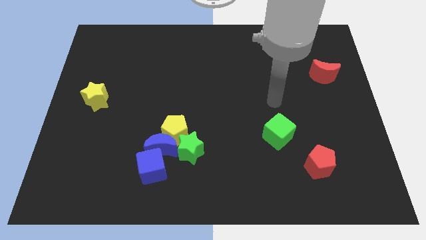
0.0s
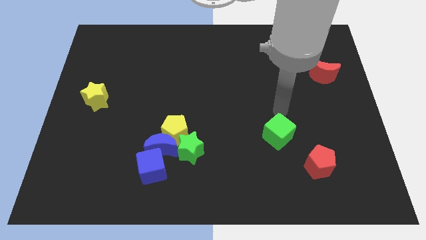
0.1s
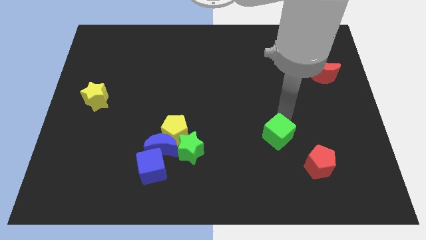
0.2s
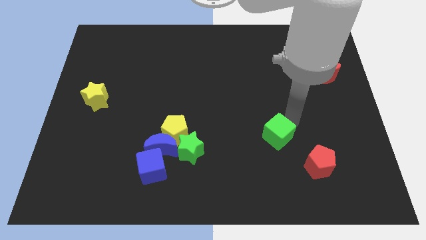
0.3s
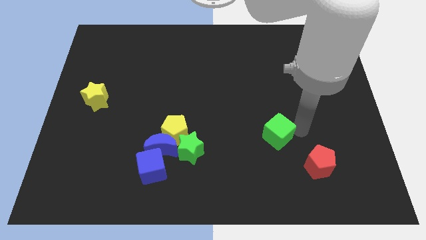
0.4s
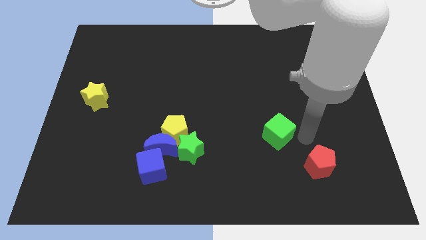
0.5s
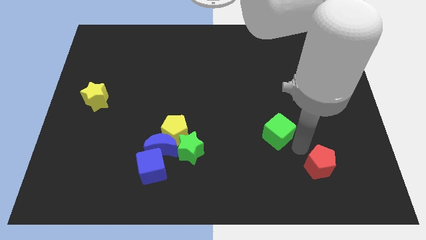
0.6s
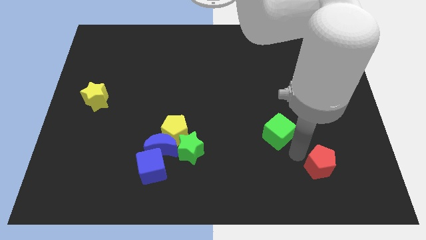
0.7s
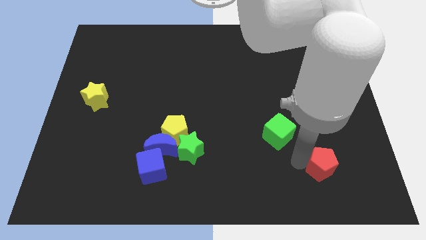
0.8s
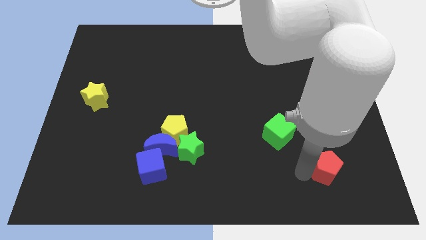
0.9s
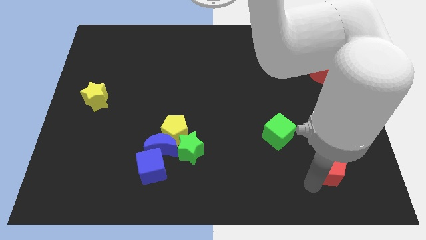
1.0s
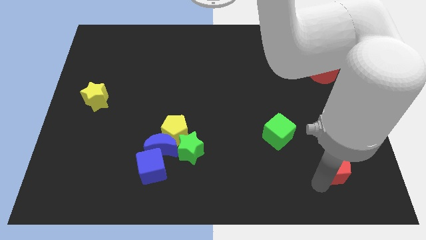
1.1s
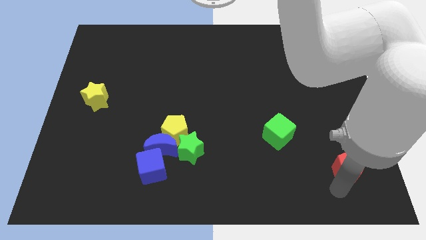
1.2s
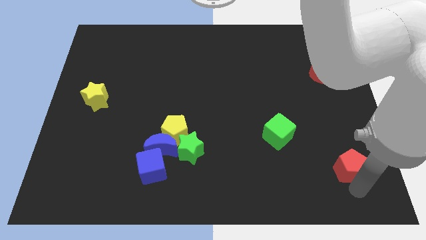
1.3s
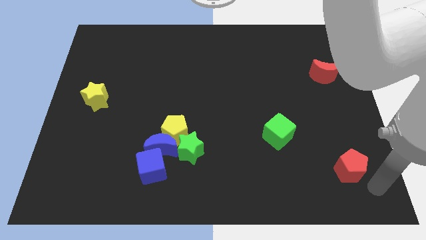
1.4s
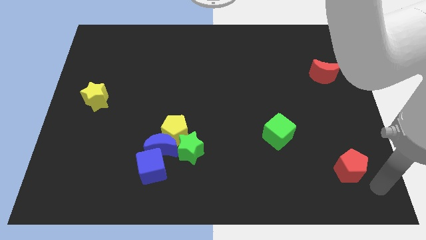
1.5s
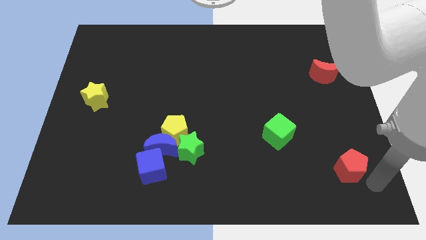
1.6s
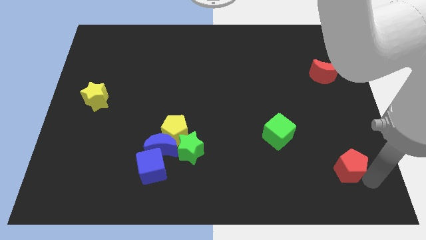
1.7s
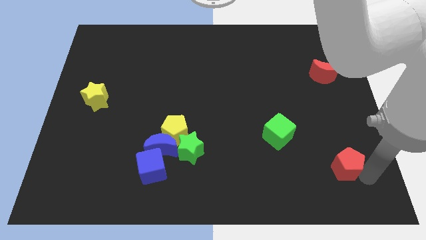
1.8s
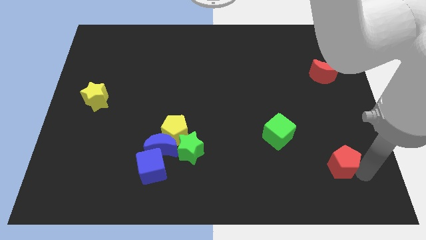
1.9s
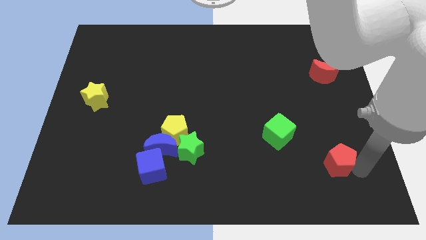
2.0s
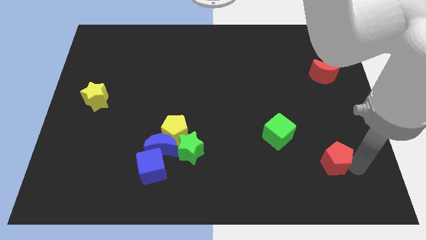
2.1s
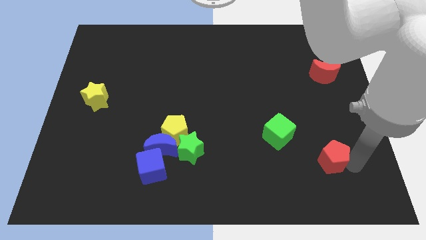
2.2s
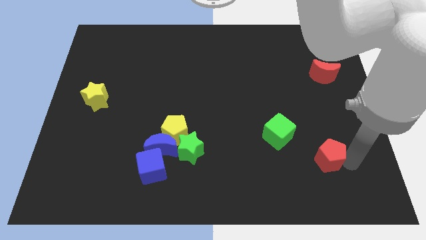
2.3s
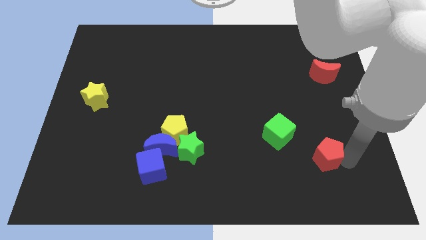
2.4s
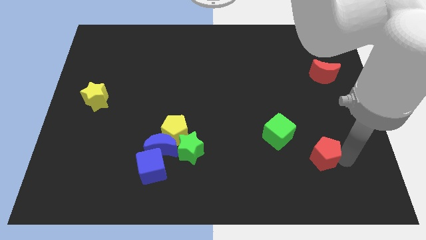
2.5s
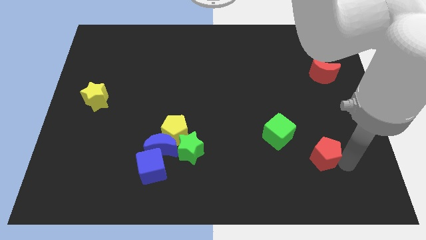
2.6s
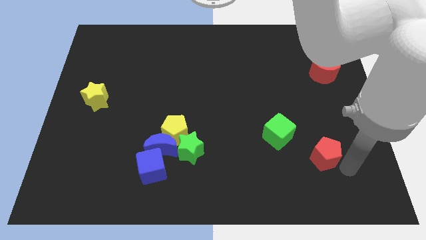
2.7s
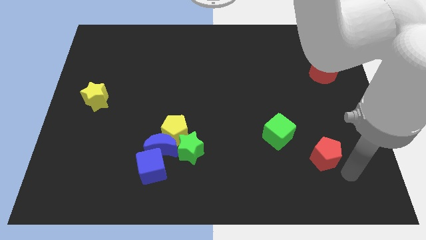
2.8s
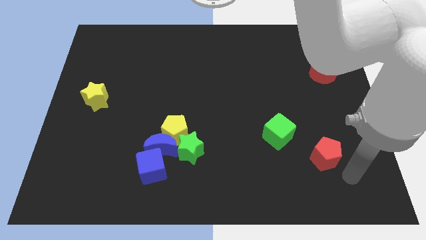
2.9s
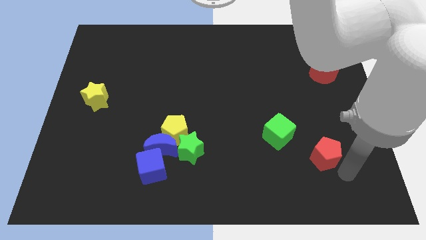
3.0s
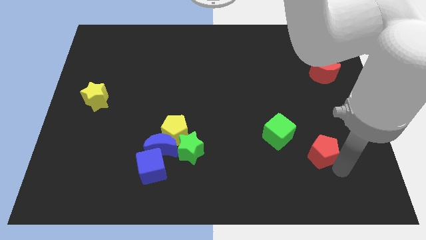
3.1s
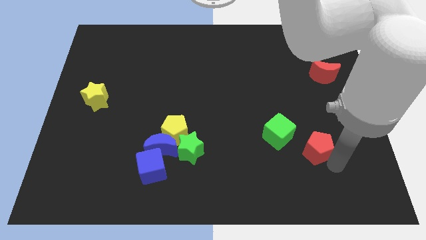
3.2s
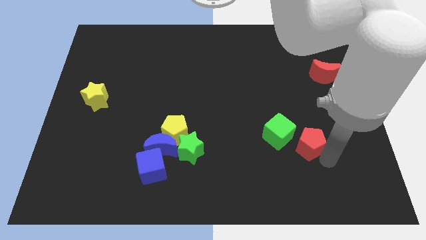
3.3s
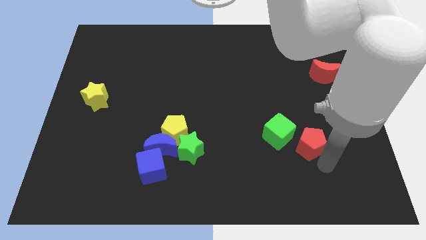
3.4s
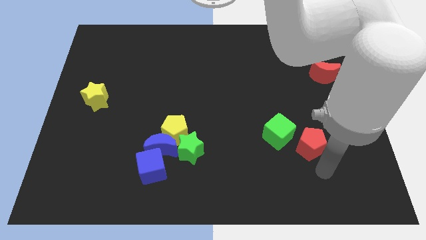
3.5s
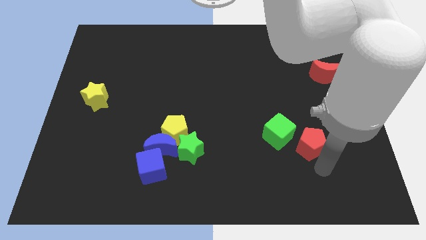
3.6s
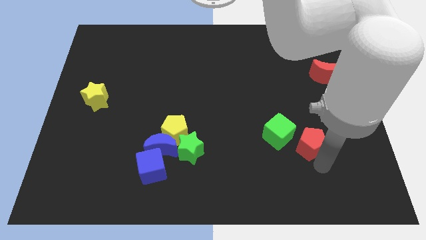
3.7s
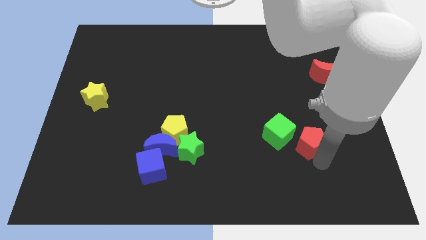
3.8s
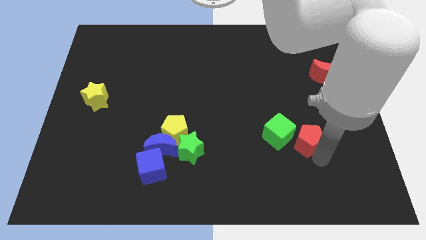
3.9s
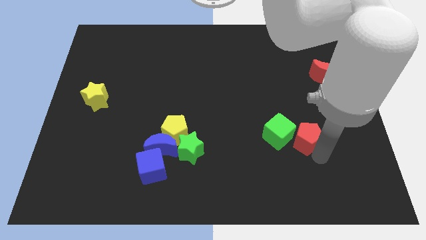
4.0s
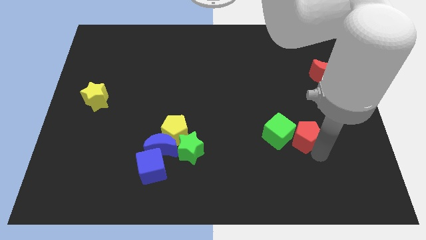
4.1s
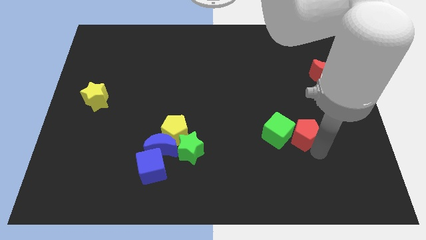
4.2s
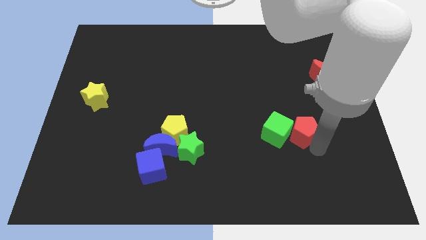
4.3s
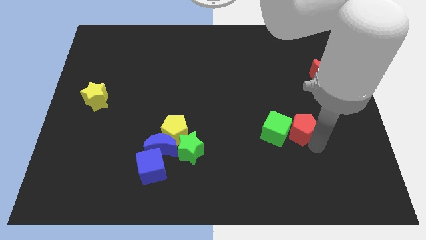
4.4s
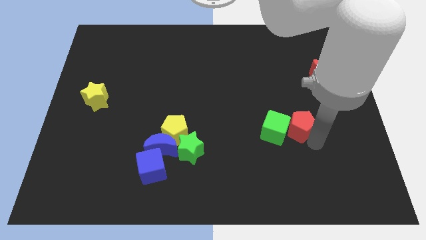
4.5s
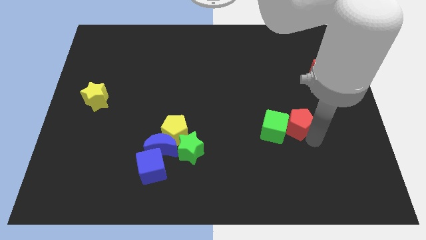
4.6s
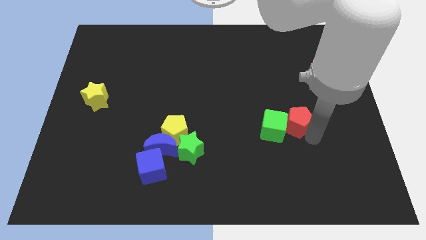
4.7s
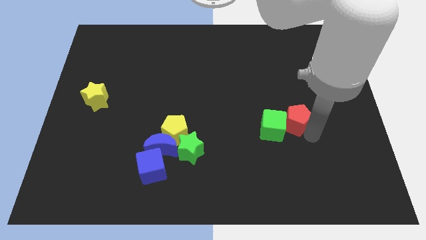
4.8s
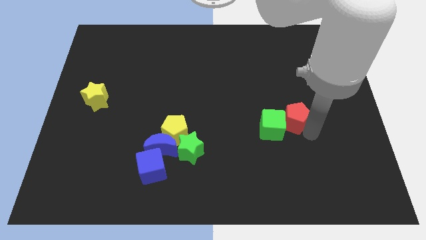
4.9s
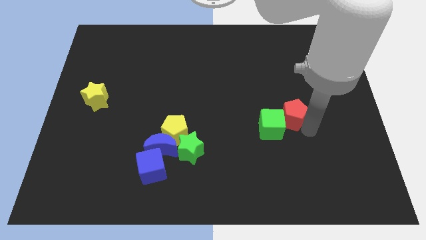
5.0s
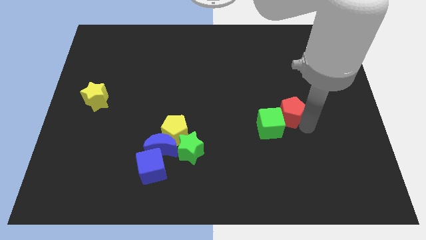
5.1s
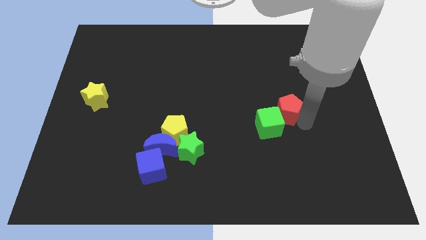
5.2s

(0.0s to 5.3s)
slide the red pentagon above the green cube

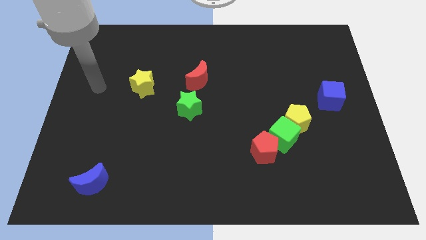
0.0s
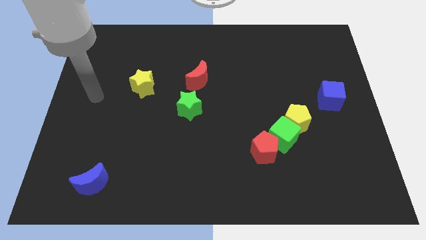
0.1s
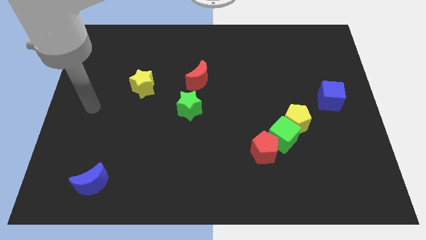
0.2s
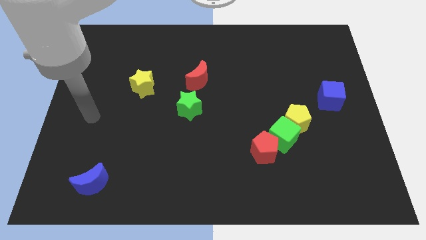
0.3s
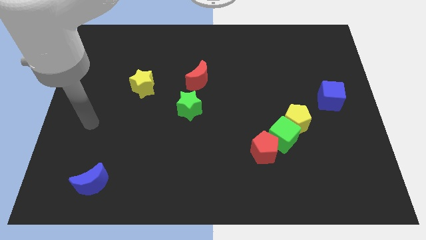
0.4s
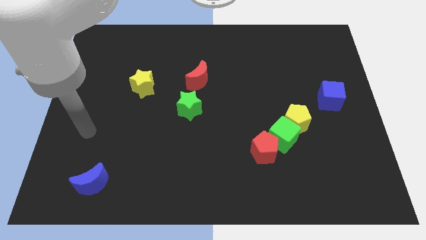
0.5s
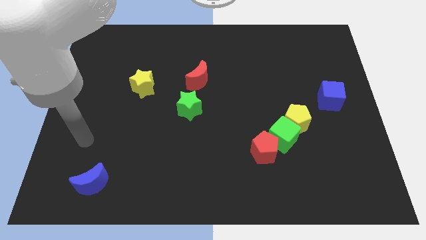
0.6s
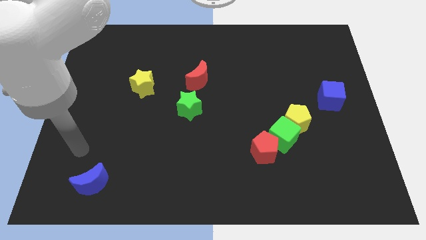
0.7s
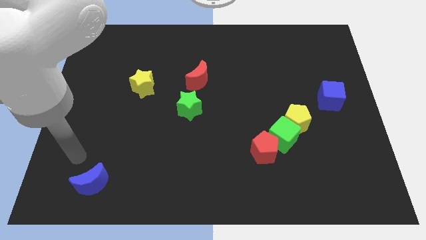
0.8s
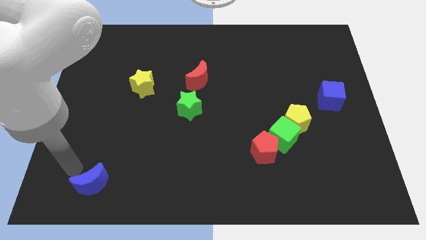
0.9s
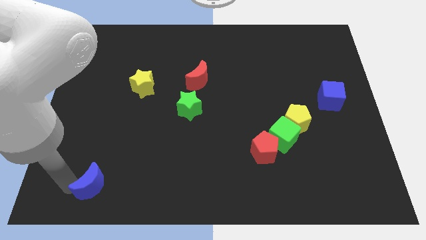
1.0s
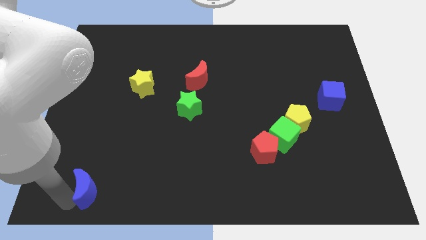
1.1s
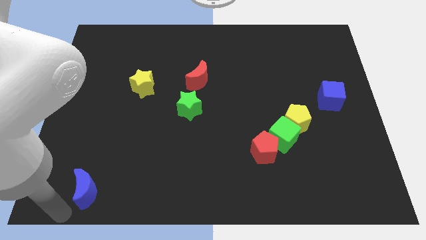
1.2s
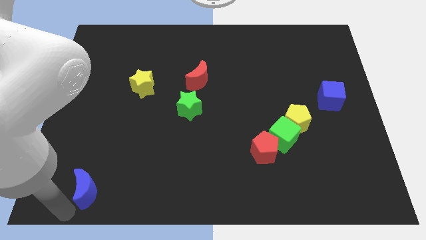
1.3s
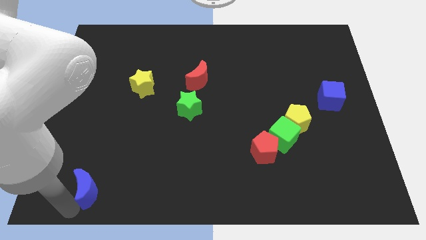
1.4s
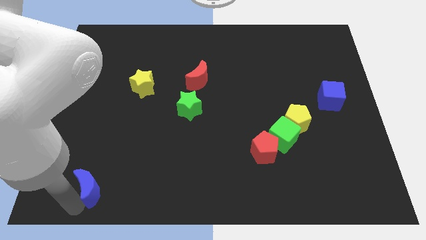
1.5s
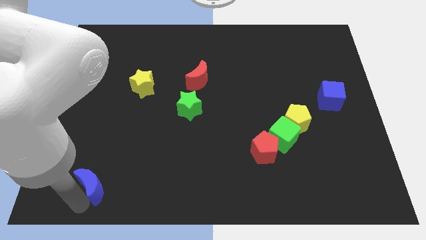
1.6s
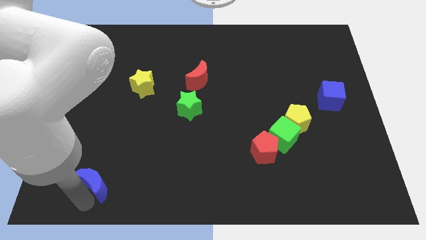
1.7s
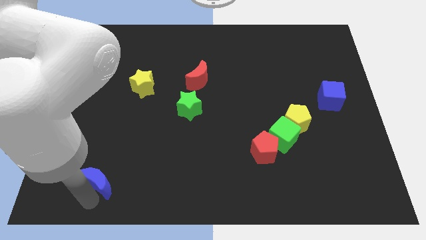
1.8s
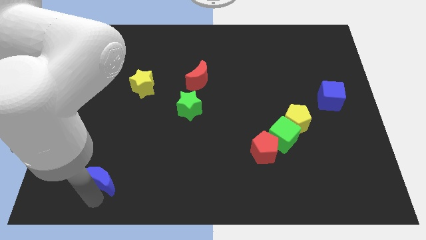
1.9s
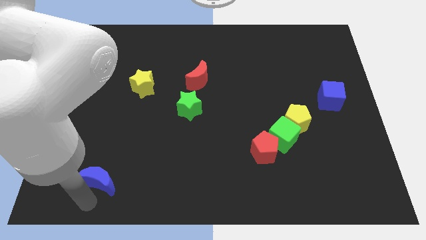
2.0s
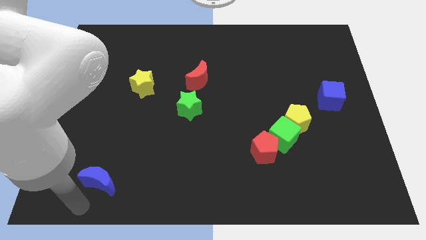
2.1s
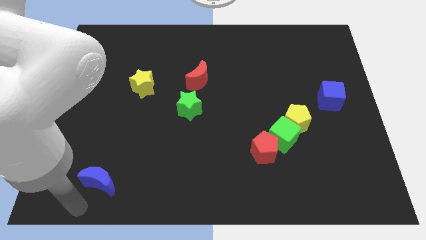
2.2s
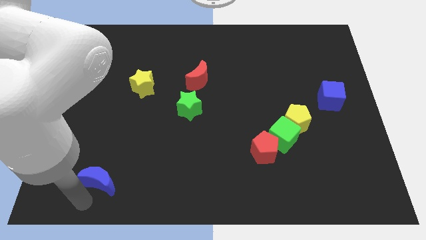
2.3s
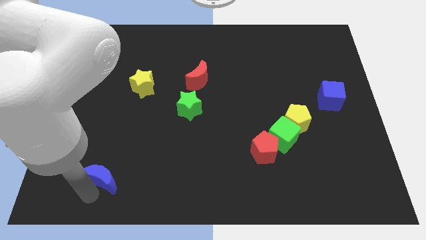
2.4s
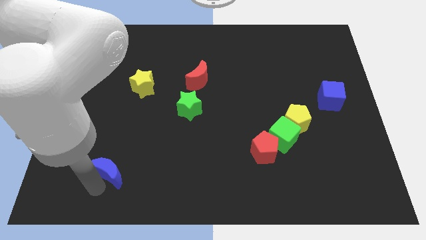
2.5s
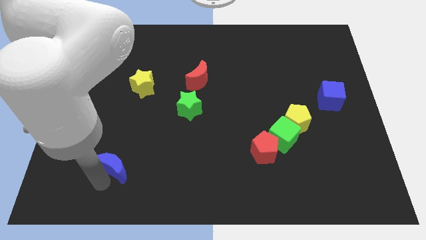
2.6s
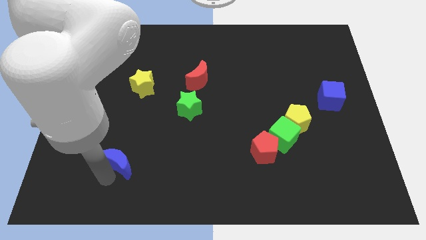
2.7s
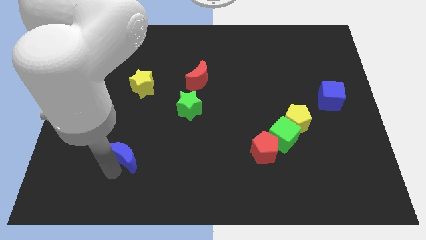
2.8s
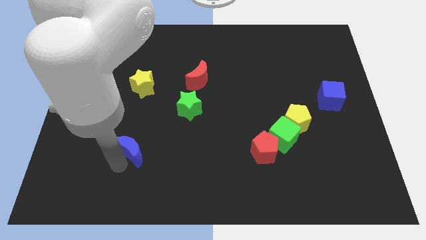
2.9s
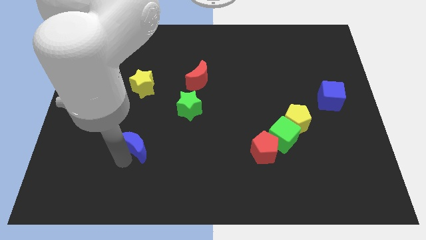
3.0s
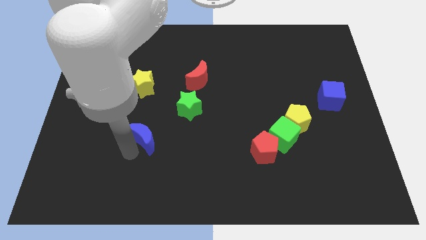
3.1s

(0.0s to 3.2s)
put the blue moon diagonally down and to the left of the green star
